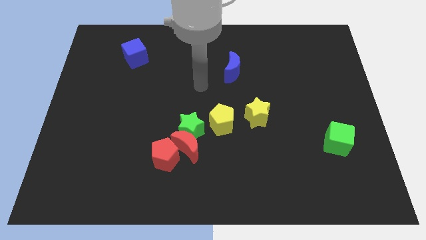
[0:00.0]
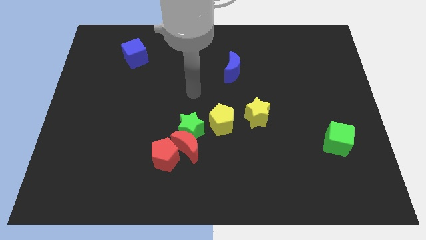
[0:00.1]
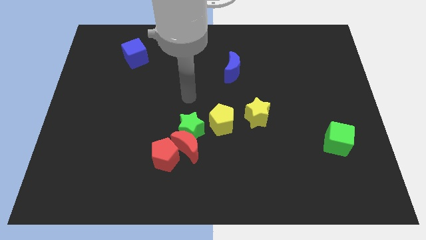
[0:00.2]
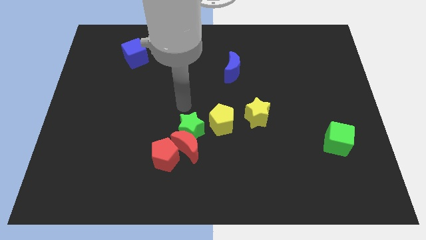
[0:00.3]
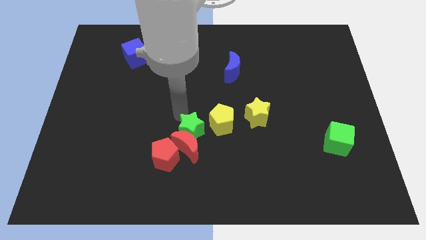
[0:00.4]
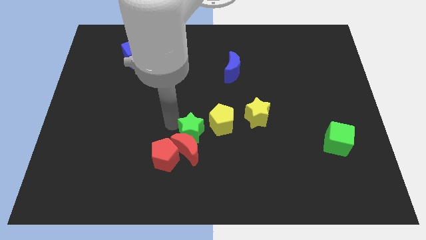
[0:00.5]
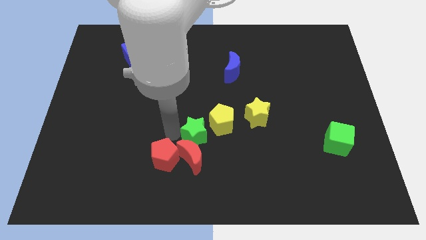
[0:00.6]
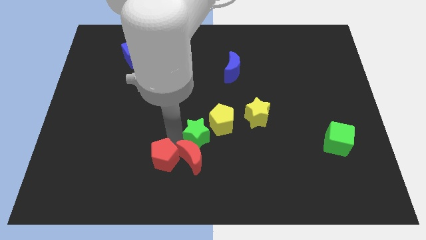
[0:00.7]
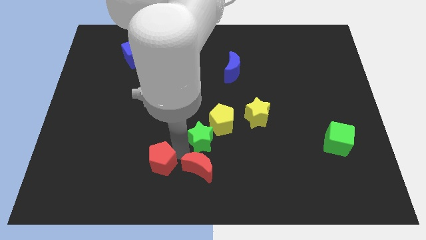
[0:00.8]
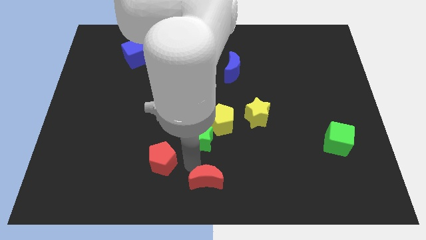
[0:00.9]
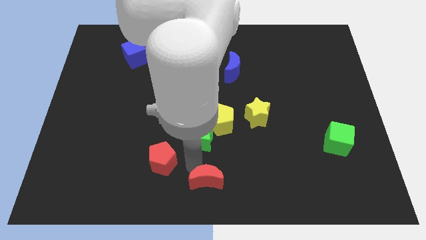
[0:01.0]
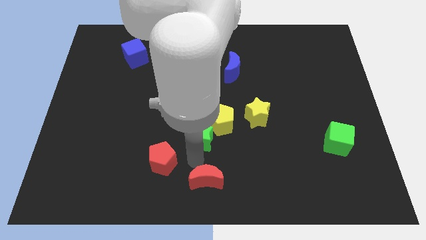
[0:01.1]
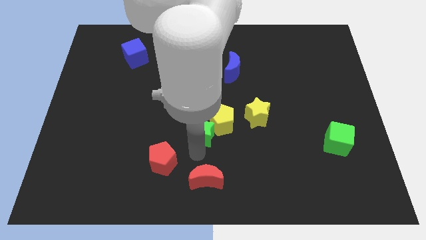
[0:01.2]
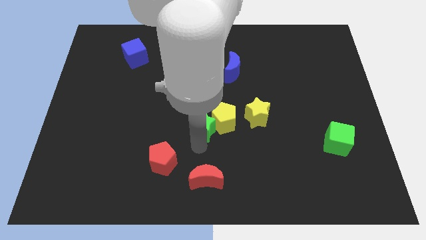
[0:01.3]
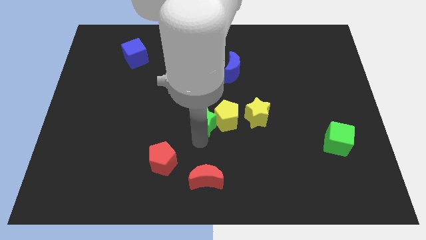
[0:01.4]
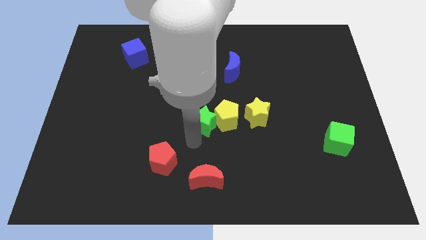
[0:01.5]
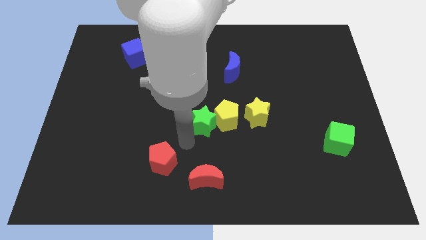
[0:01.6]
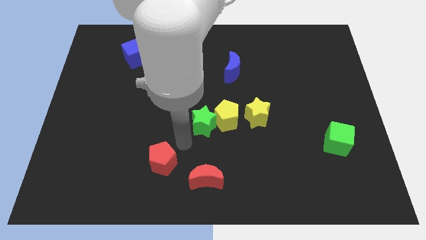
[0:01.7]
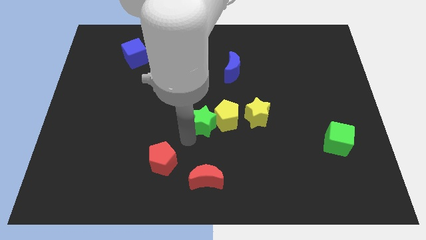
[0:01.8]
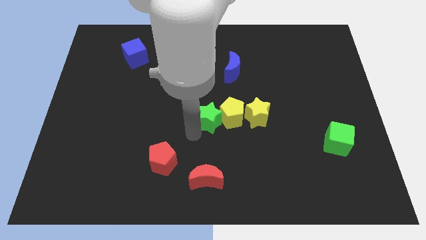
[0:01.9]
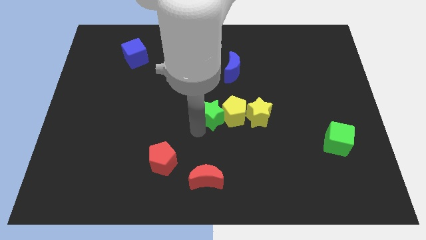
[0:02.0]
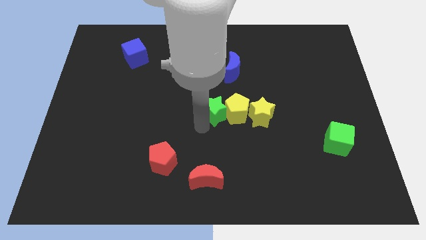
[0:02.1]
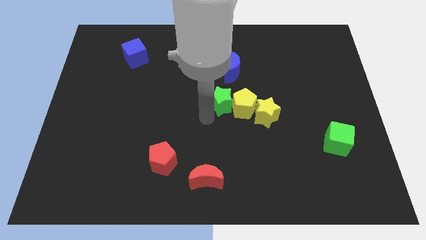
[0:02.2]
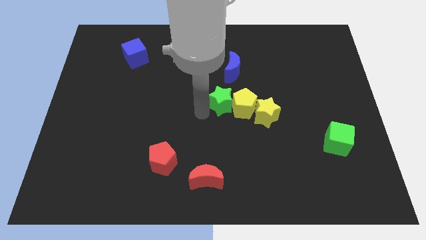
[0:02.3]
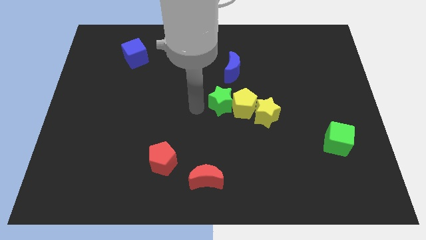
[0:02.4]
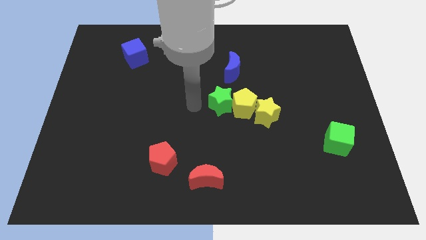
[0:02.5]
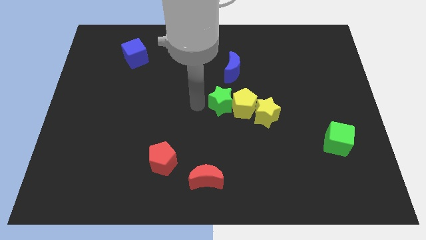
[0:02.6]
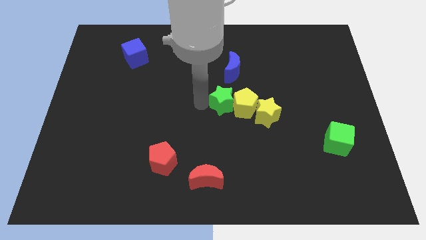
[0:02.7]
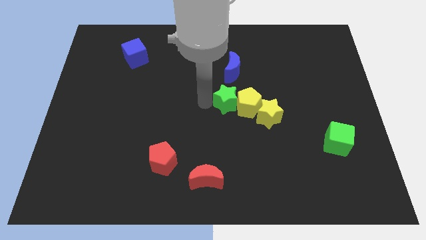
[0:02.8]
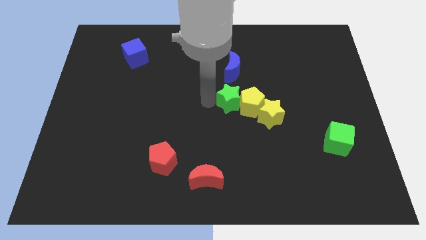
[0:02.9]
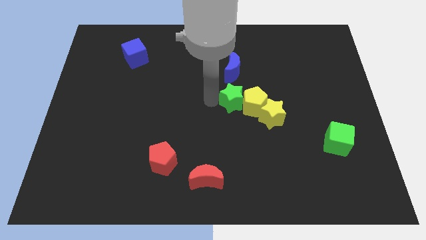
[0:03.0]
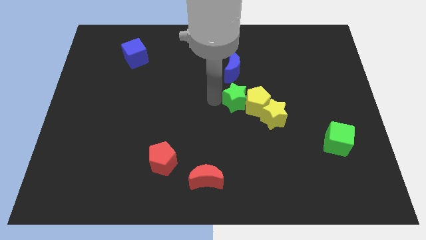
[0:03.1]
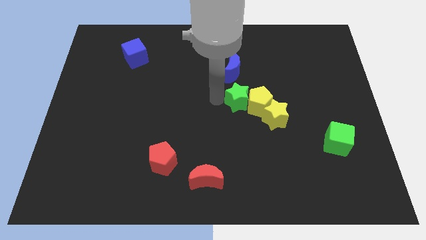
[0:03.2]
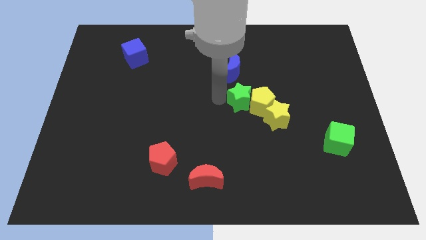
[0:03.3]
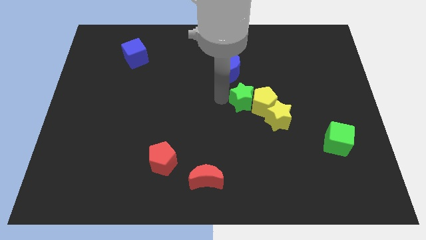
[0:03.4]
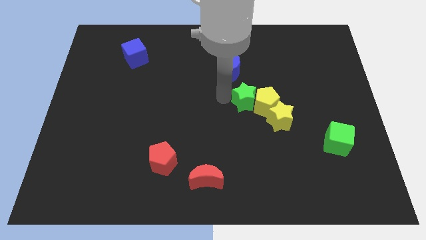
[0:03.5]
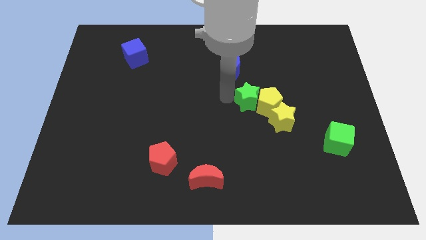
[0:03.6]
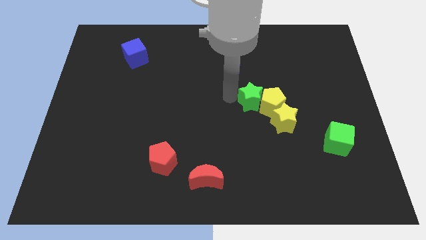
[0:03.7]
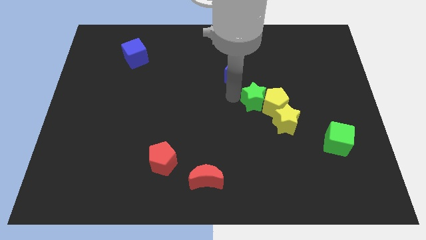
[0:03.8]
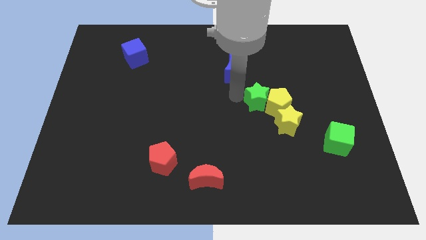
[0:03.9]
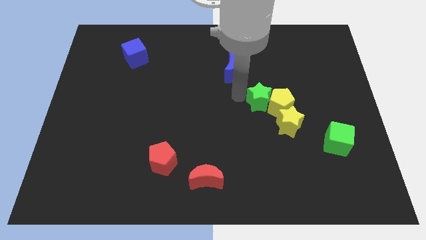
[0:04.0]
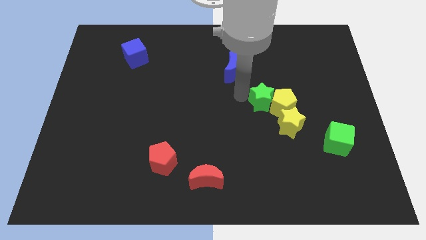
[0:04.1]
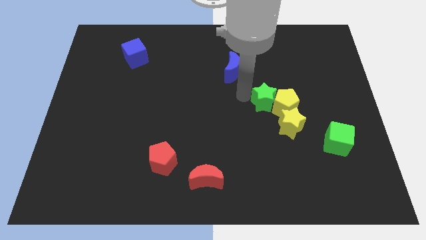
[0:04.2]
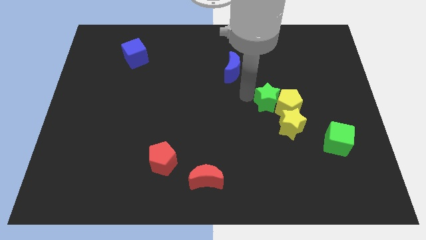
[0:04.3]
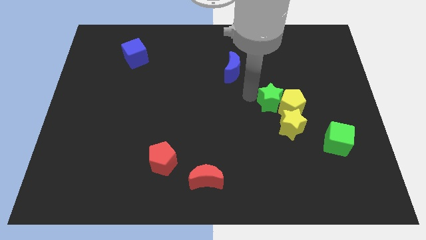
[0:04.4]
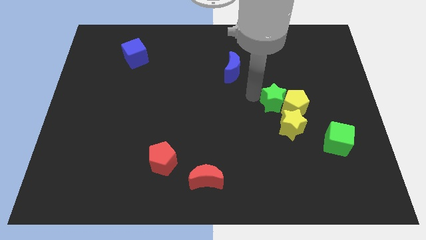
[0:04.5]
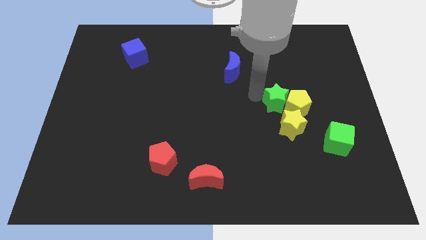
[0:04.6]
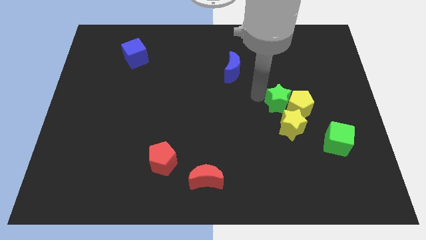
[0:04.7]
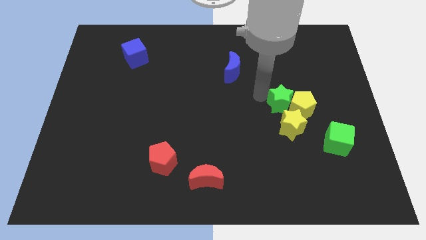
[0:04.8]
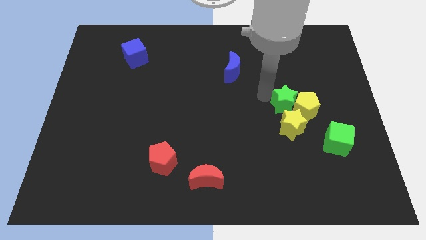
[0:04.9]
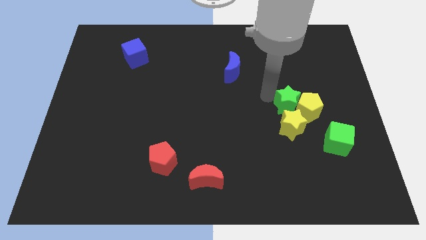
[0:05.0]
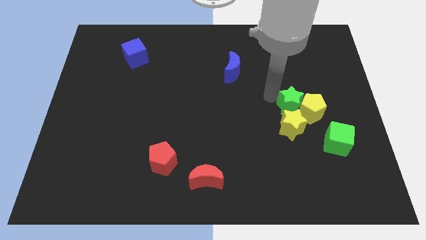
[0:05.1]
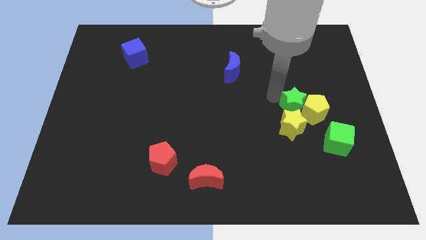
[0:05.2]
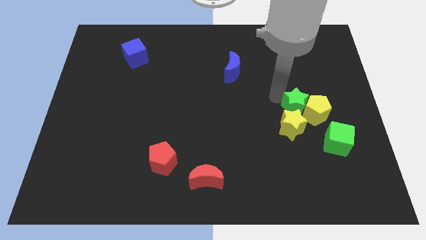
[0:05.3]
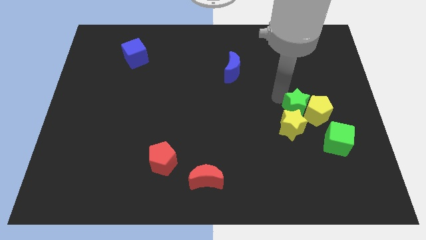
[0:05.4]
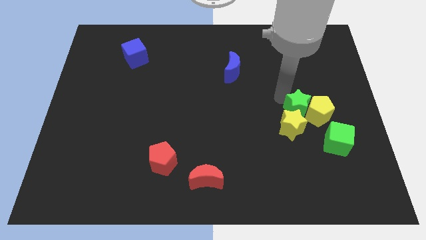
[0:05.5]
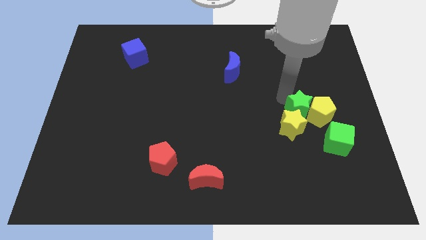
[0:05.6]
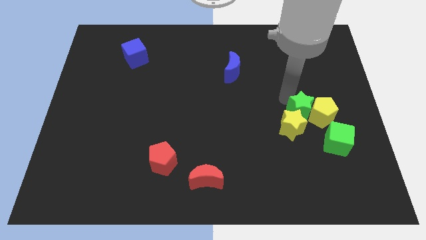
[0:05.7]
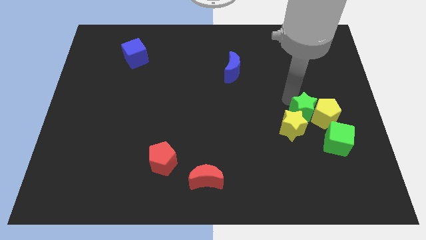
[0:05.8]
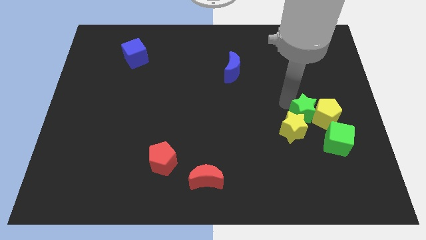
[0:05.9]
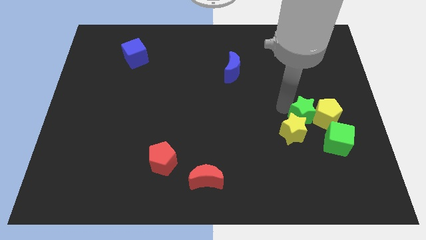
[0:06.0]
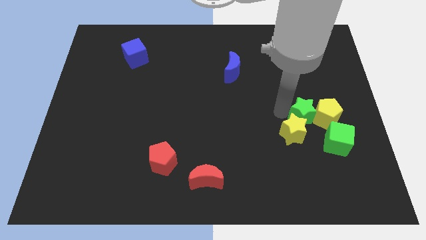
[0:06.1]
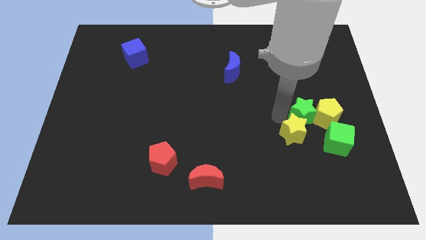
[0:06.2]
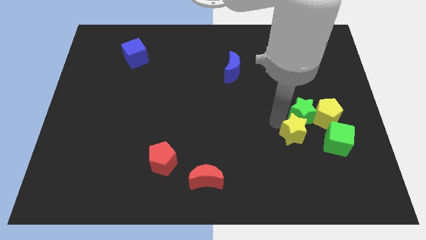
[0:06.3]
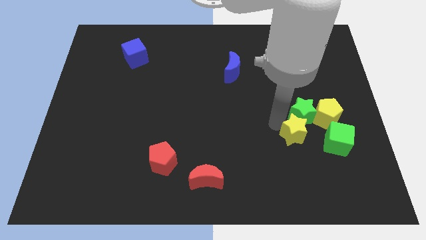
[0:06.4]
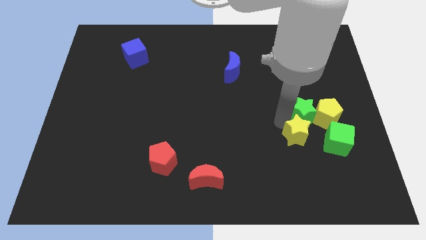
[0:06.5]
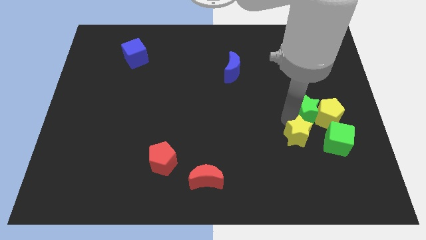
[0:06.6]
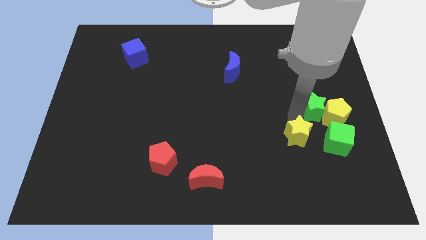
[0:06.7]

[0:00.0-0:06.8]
move the green star to the top side of the green cube
